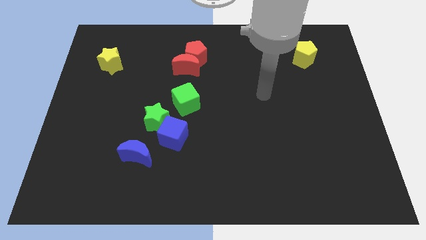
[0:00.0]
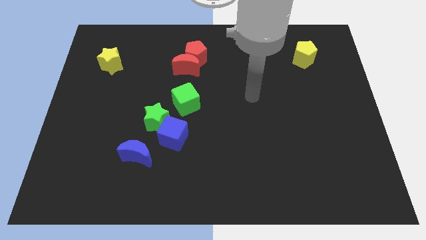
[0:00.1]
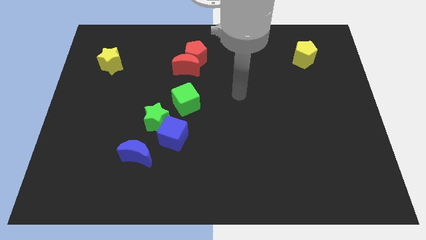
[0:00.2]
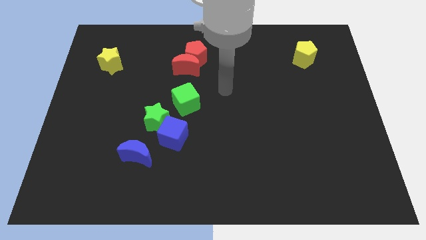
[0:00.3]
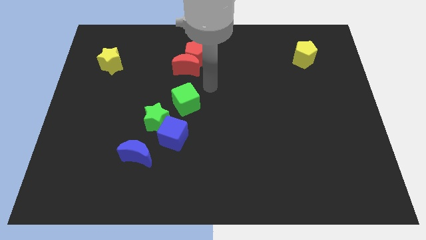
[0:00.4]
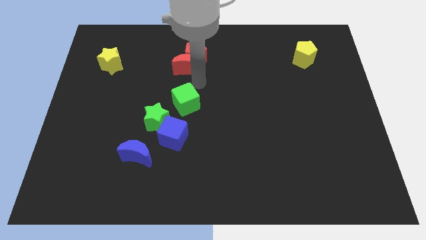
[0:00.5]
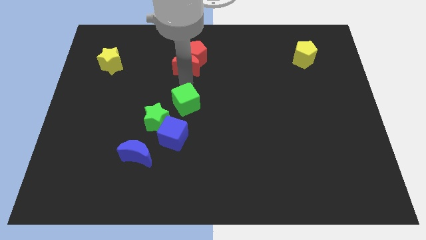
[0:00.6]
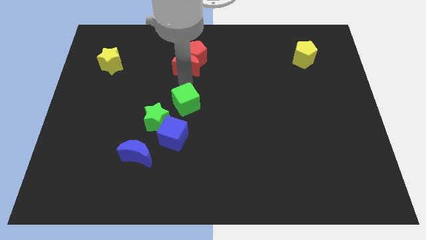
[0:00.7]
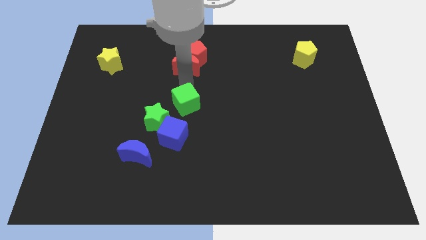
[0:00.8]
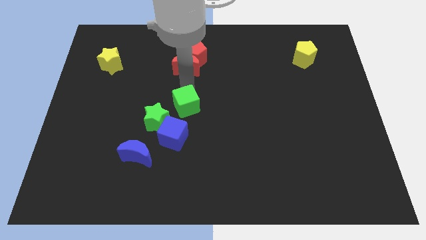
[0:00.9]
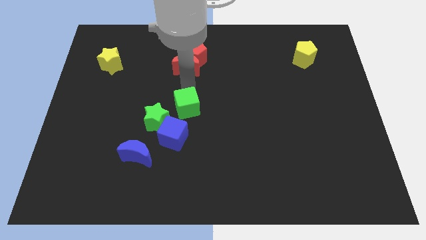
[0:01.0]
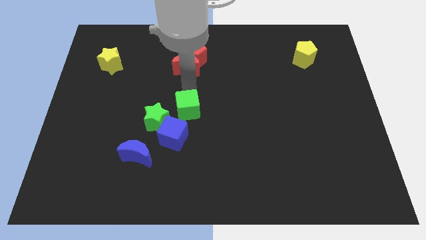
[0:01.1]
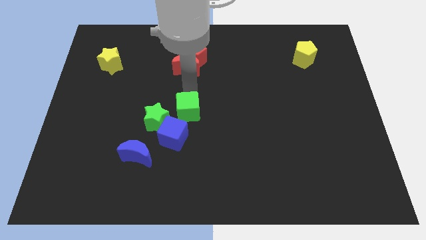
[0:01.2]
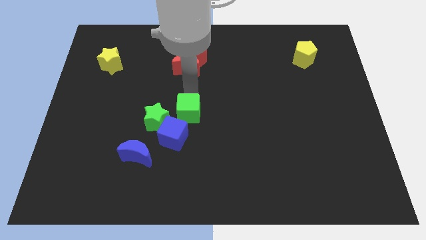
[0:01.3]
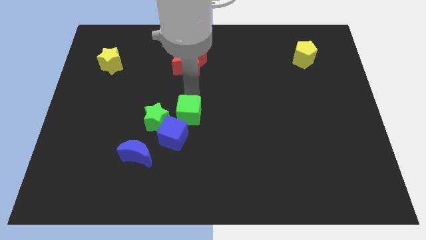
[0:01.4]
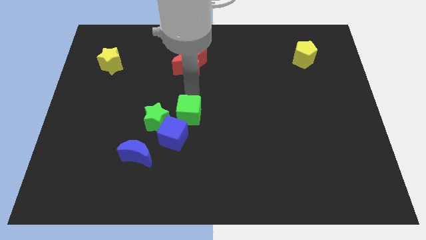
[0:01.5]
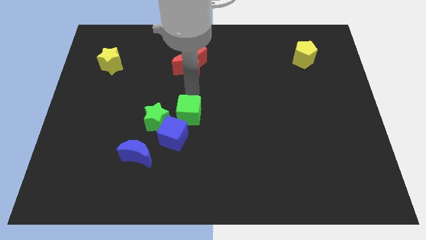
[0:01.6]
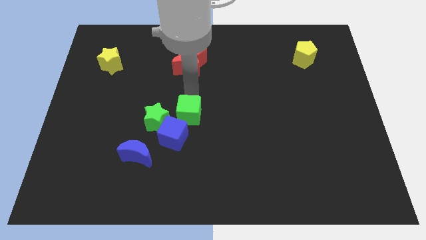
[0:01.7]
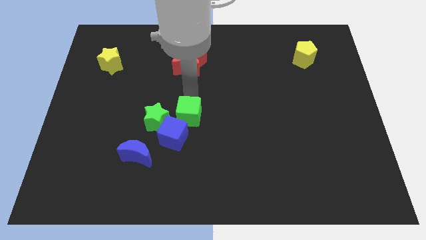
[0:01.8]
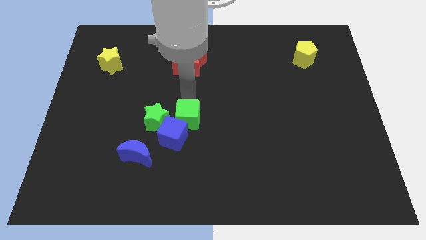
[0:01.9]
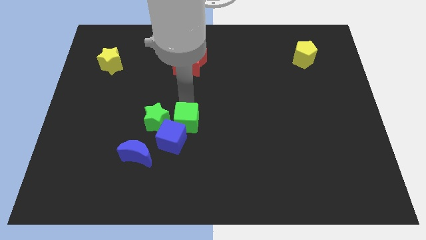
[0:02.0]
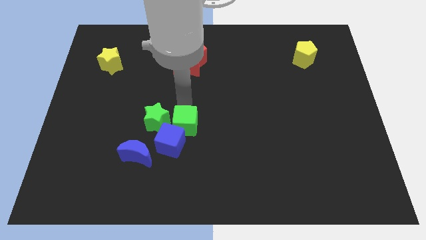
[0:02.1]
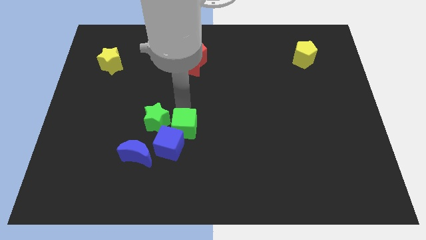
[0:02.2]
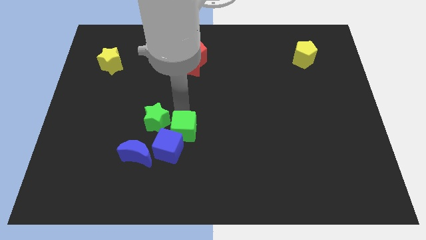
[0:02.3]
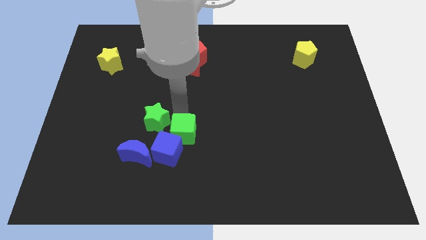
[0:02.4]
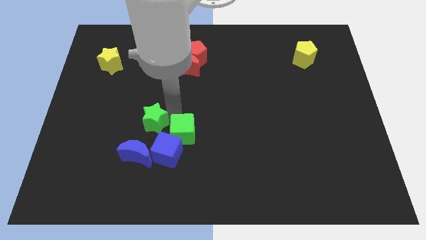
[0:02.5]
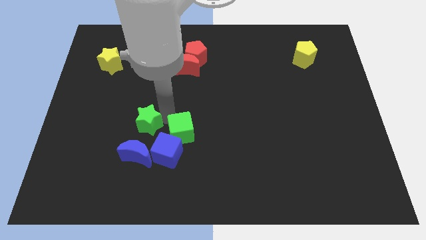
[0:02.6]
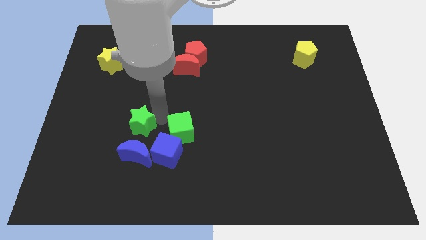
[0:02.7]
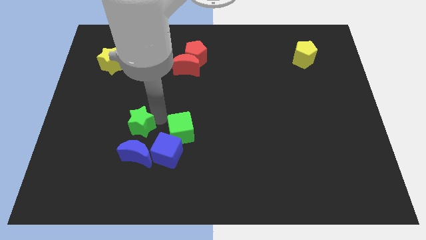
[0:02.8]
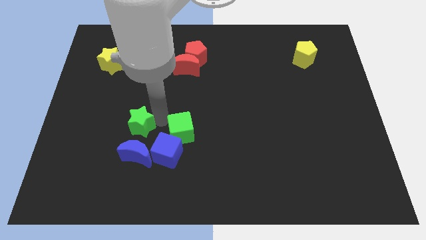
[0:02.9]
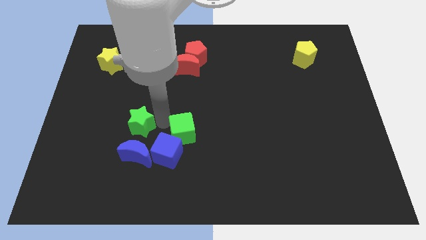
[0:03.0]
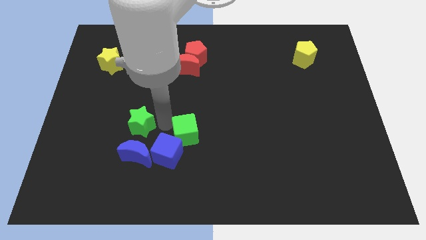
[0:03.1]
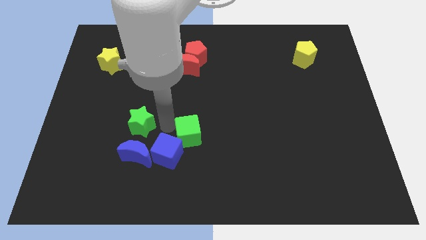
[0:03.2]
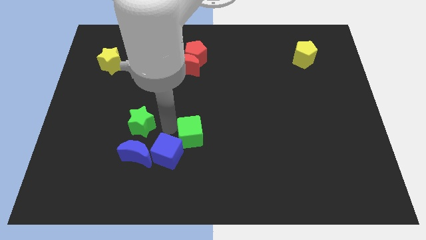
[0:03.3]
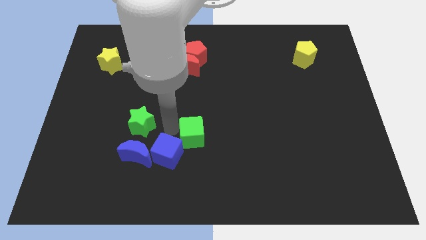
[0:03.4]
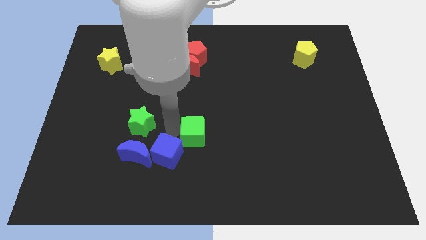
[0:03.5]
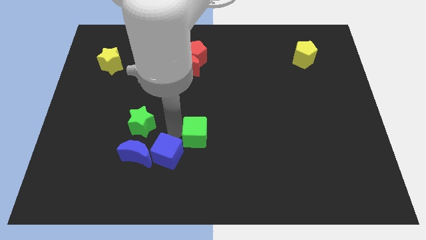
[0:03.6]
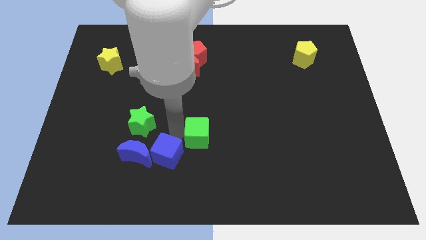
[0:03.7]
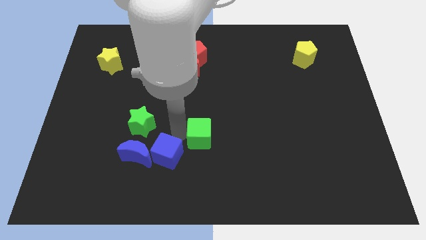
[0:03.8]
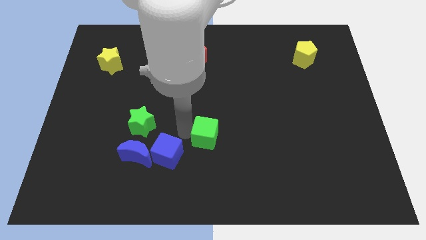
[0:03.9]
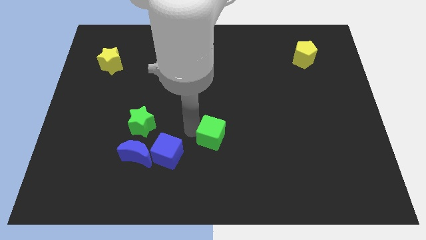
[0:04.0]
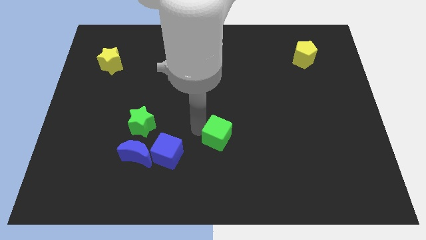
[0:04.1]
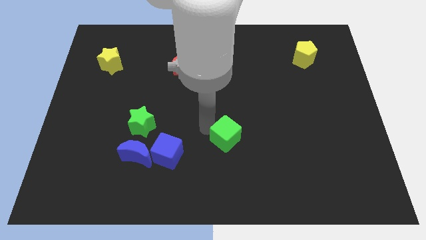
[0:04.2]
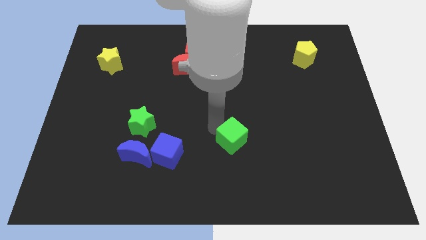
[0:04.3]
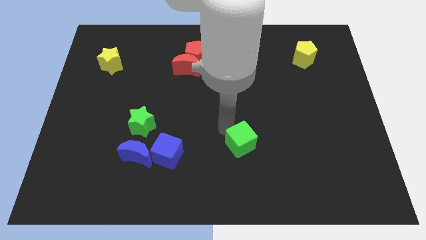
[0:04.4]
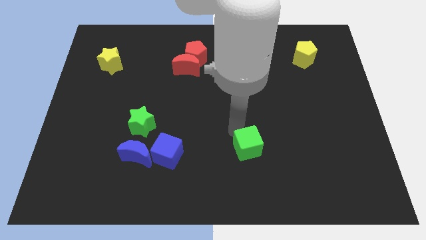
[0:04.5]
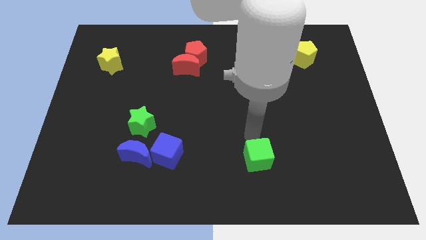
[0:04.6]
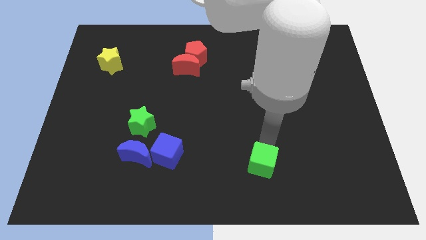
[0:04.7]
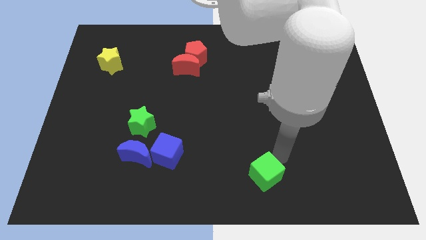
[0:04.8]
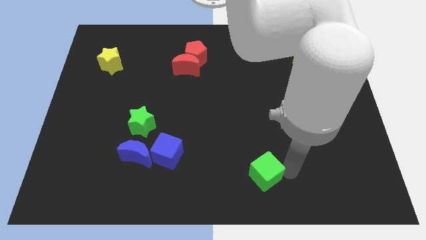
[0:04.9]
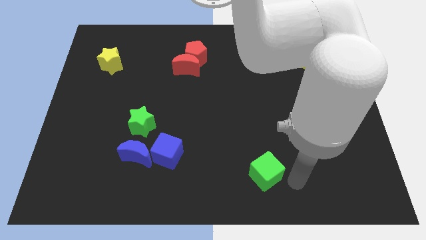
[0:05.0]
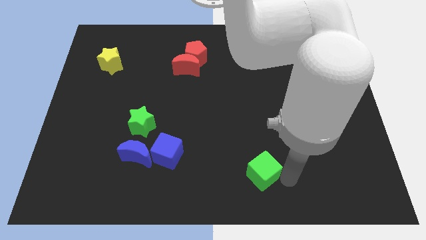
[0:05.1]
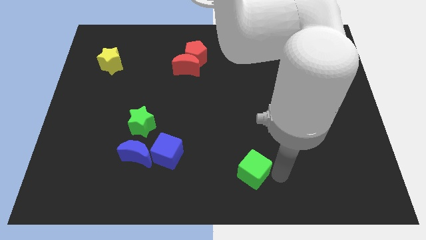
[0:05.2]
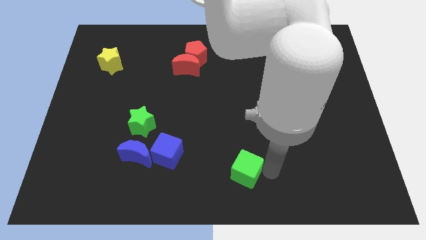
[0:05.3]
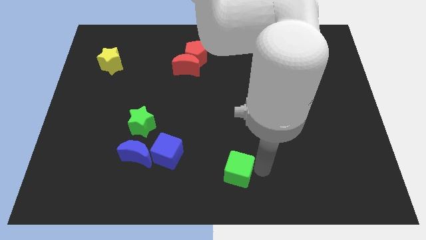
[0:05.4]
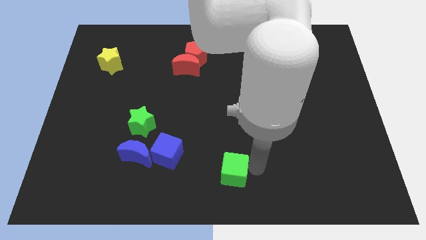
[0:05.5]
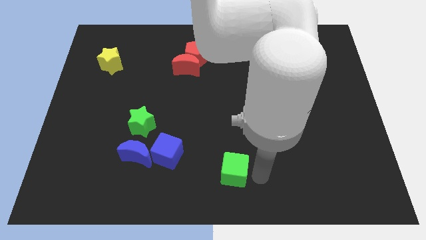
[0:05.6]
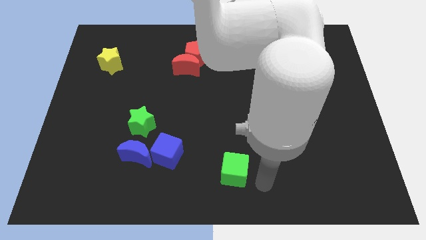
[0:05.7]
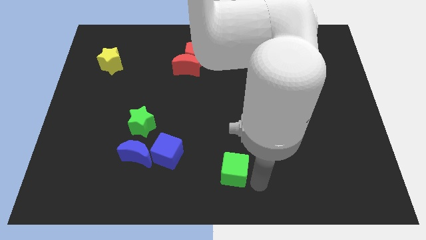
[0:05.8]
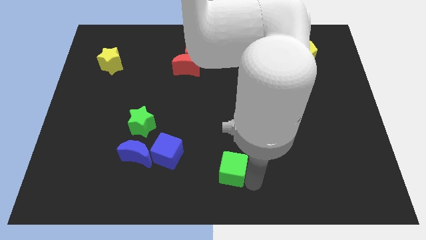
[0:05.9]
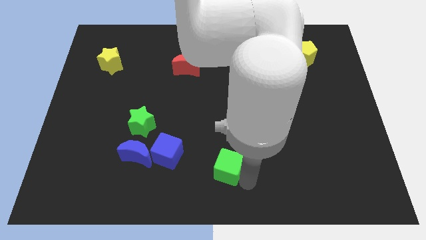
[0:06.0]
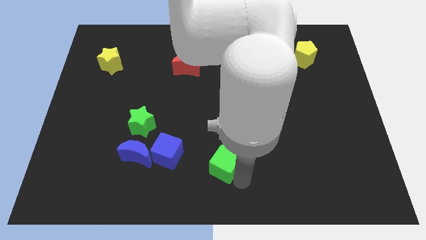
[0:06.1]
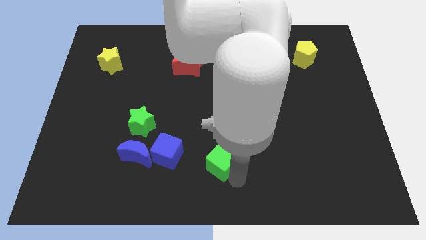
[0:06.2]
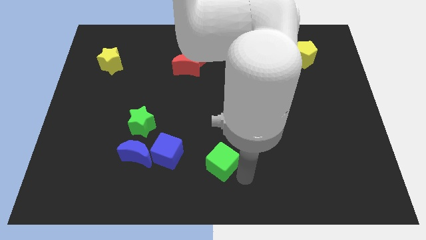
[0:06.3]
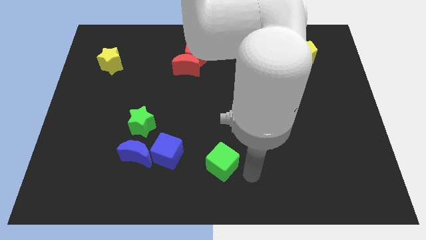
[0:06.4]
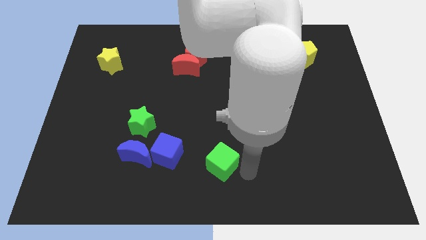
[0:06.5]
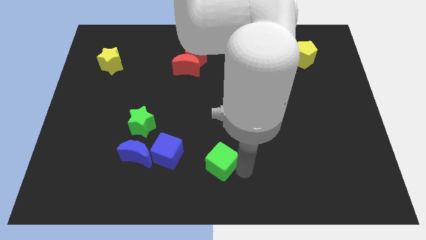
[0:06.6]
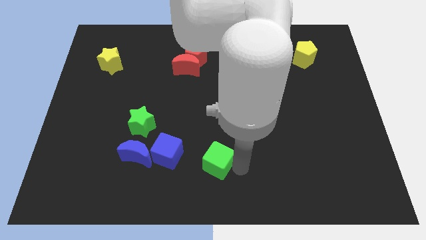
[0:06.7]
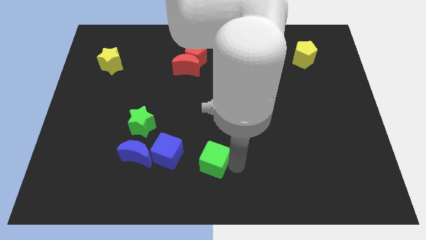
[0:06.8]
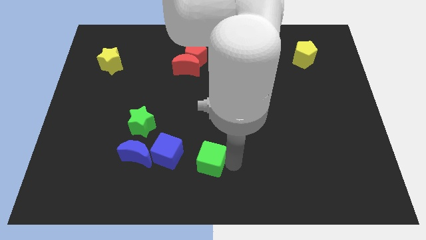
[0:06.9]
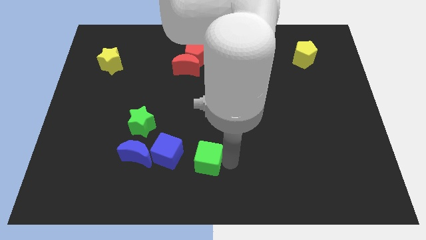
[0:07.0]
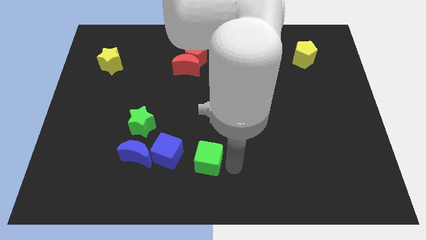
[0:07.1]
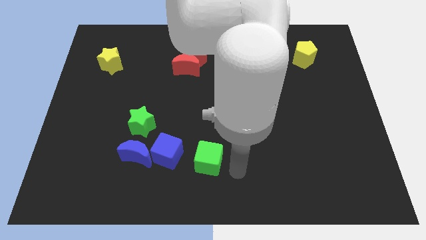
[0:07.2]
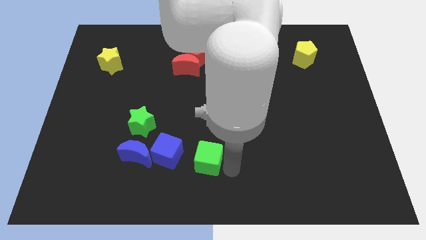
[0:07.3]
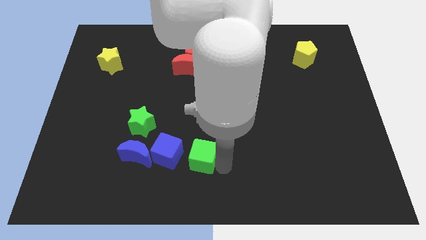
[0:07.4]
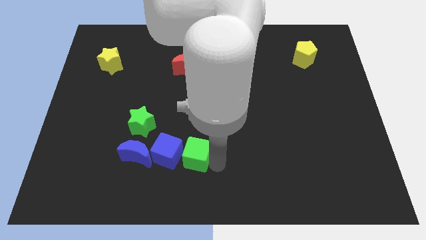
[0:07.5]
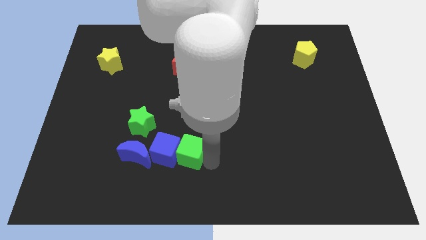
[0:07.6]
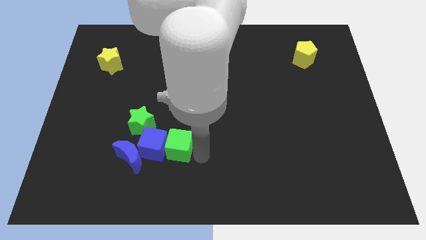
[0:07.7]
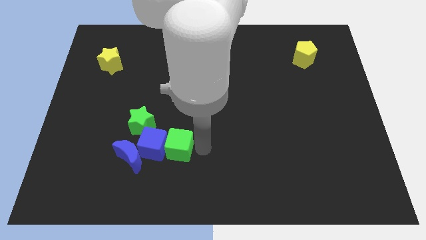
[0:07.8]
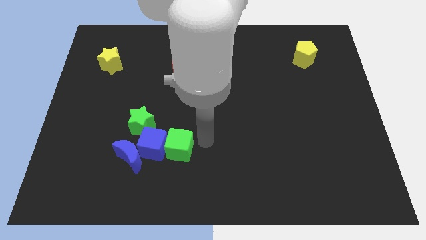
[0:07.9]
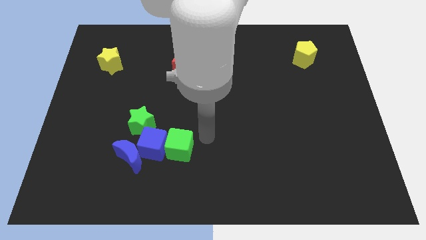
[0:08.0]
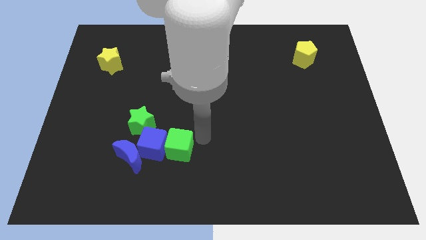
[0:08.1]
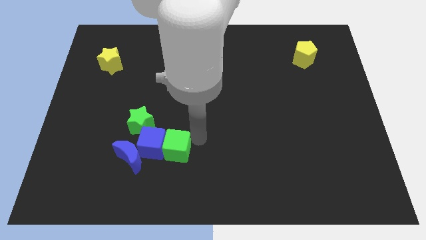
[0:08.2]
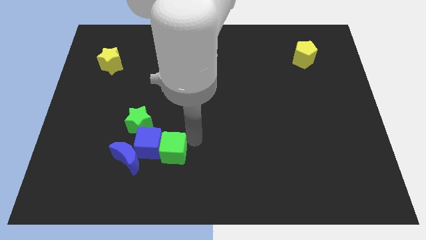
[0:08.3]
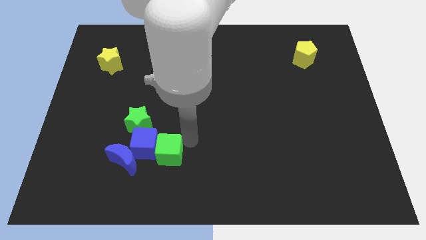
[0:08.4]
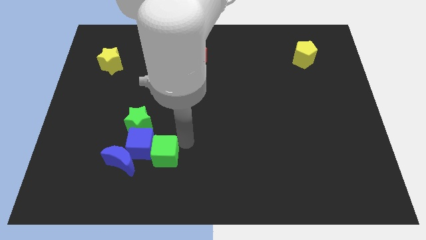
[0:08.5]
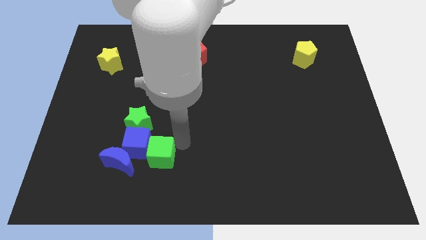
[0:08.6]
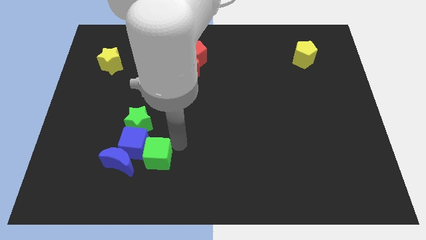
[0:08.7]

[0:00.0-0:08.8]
push the green cube to the bottom of the green star
